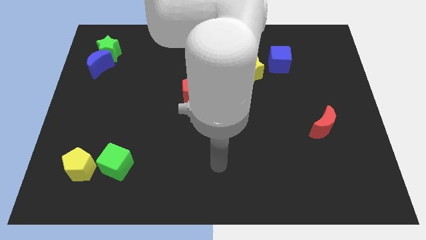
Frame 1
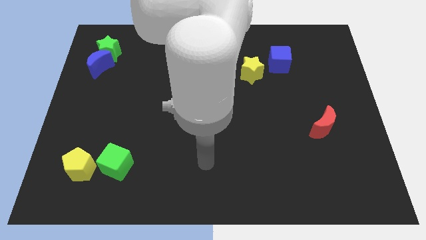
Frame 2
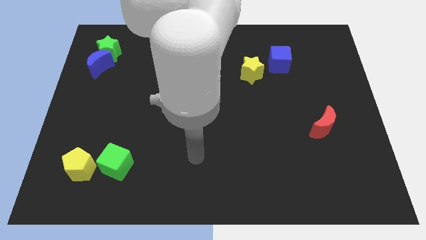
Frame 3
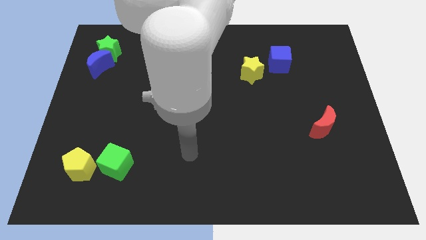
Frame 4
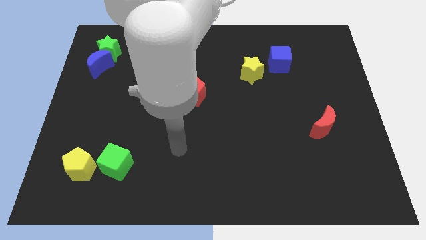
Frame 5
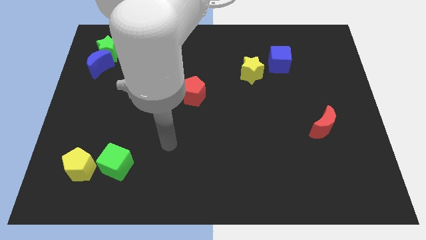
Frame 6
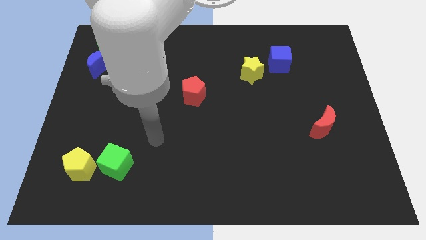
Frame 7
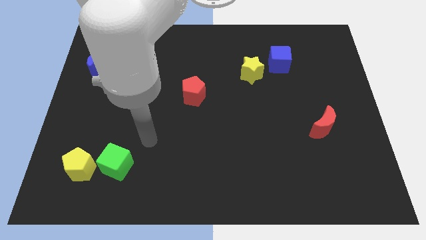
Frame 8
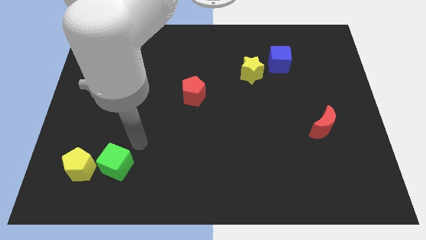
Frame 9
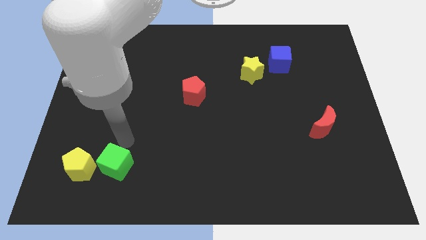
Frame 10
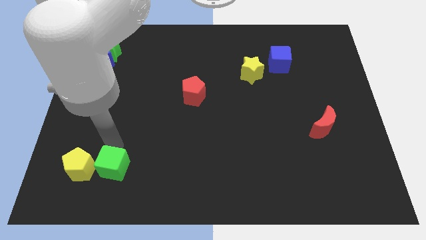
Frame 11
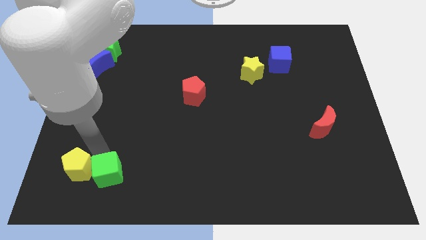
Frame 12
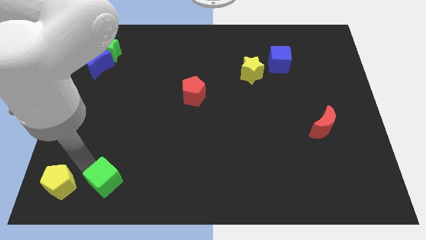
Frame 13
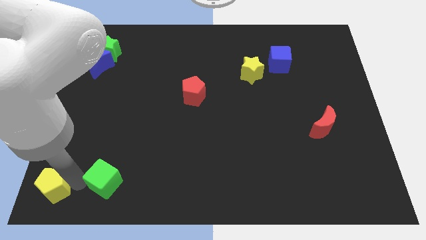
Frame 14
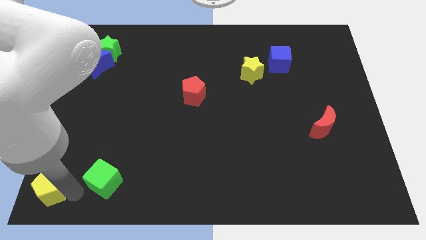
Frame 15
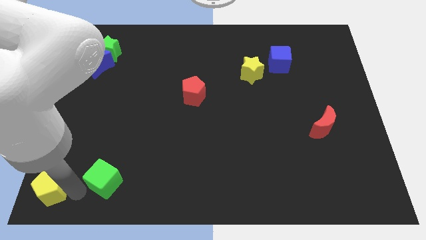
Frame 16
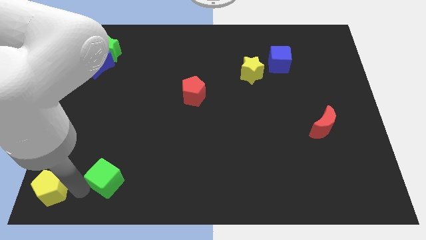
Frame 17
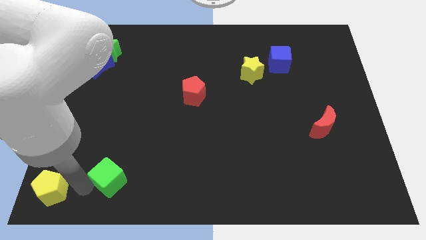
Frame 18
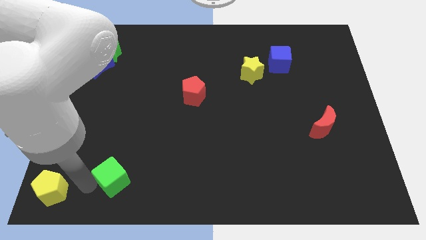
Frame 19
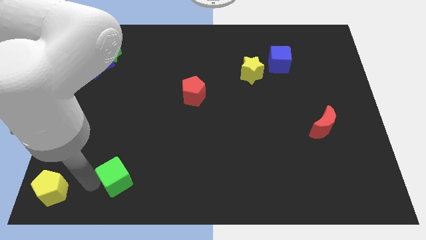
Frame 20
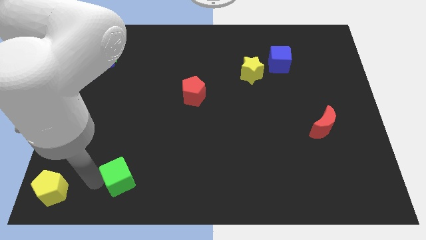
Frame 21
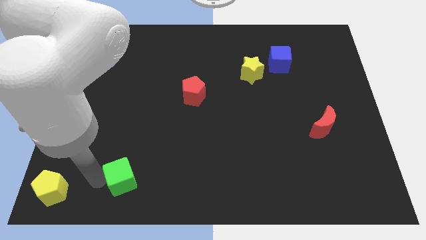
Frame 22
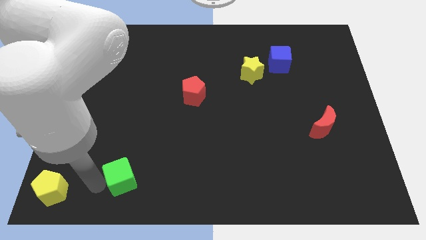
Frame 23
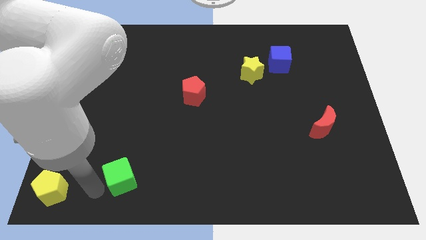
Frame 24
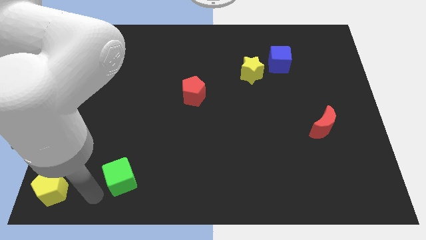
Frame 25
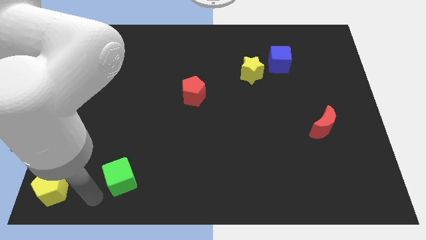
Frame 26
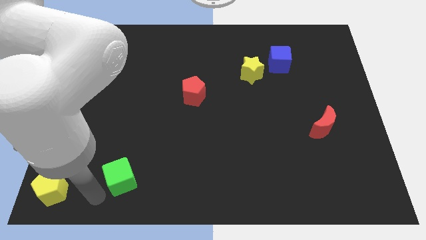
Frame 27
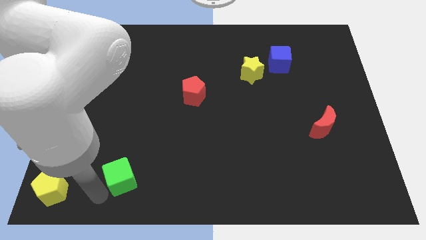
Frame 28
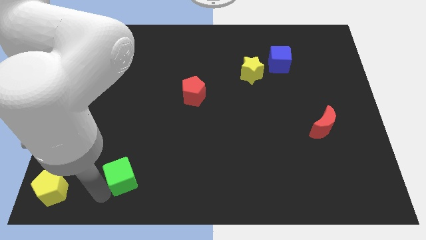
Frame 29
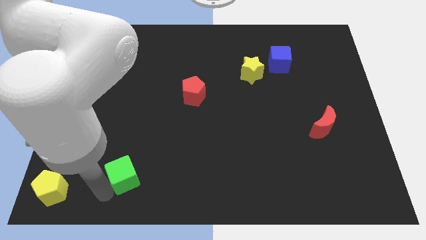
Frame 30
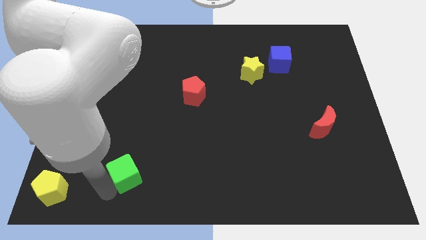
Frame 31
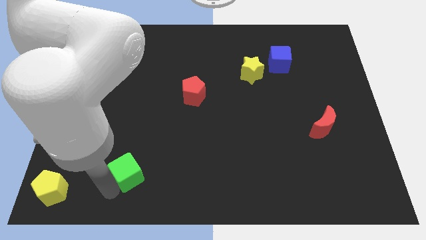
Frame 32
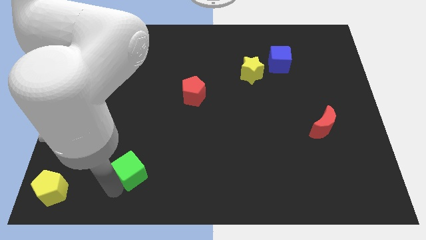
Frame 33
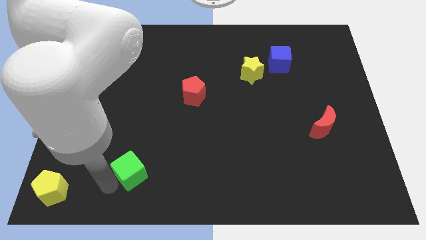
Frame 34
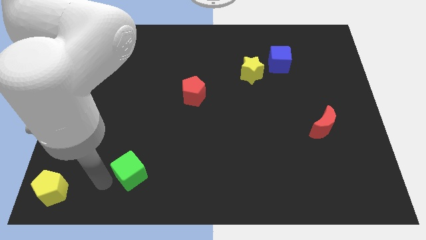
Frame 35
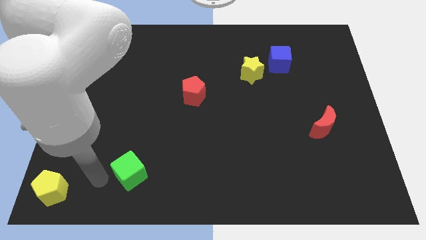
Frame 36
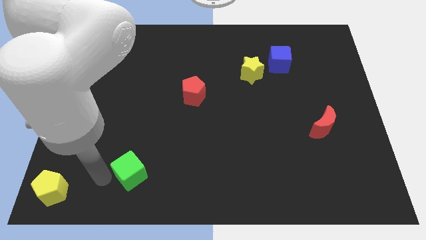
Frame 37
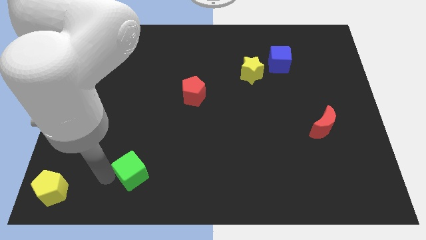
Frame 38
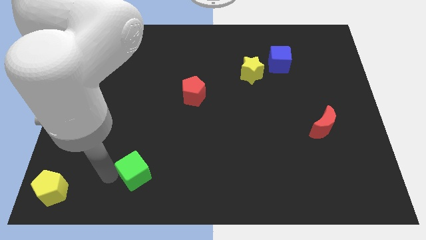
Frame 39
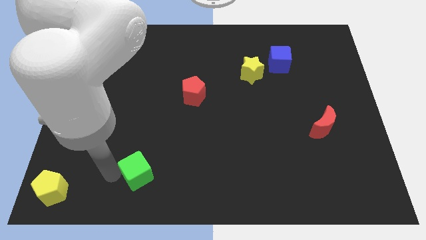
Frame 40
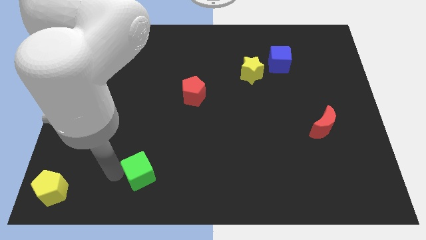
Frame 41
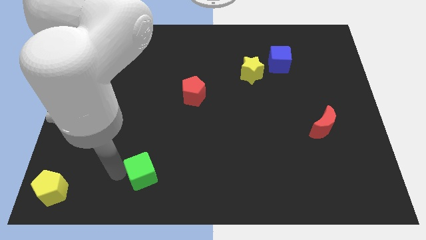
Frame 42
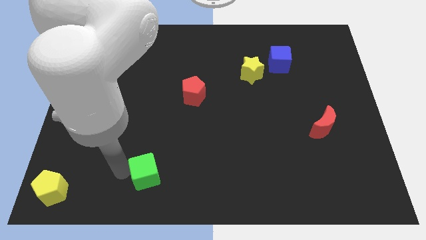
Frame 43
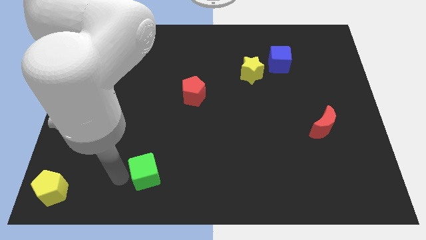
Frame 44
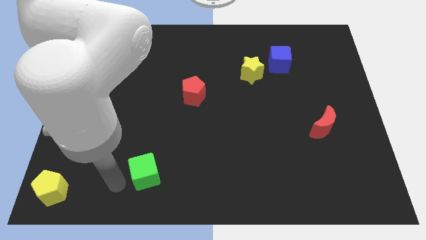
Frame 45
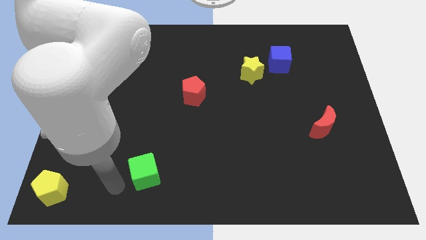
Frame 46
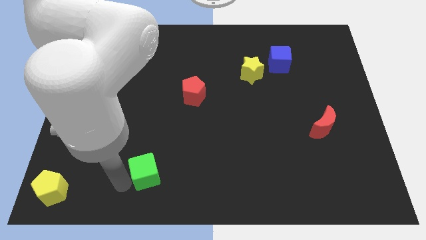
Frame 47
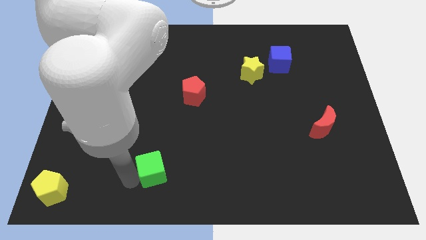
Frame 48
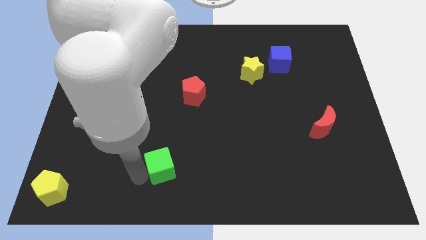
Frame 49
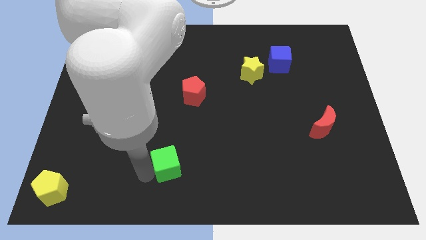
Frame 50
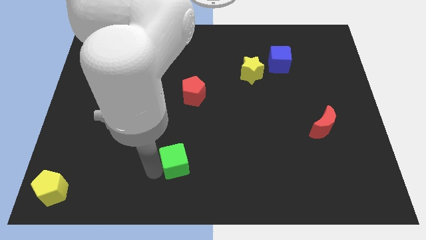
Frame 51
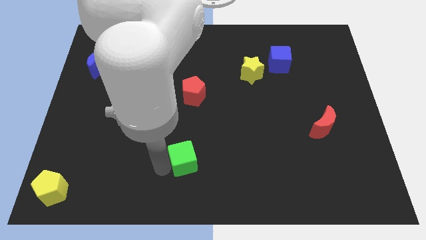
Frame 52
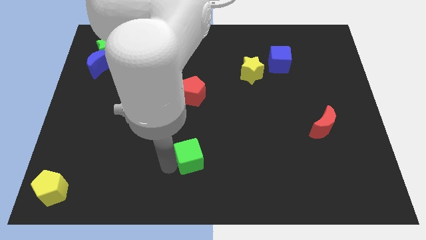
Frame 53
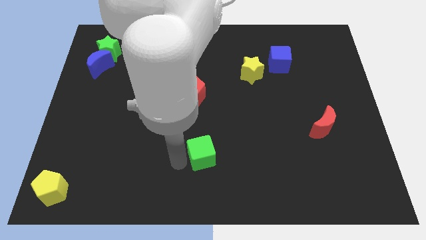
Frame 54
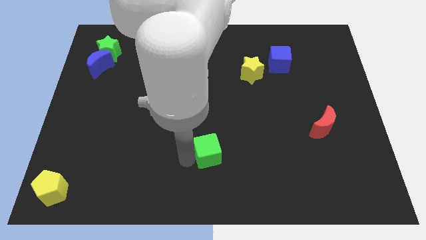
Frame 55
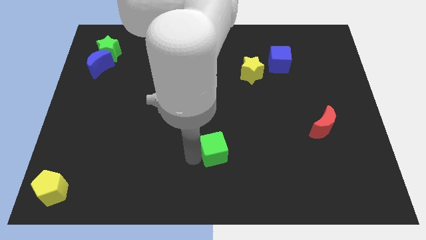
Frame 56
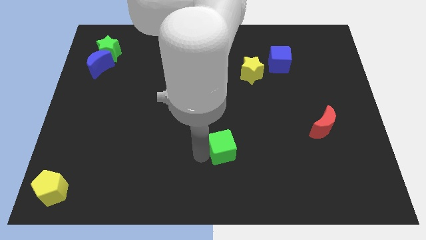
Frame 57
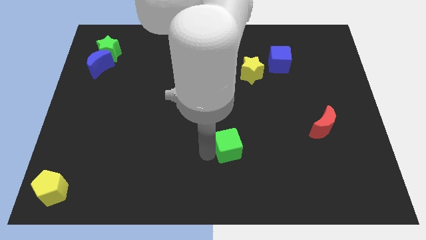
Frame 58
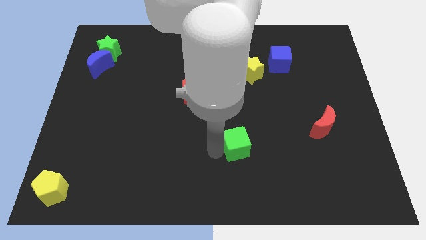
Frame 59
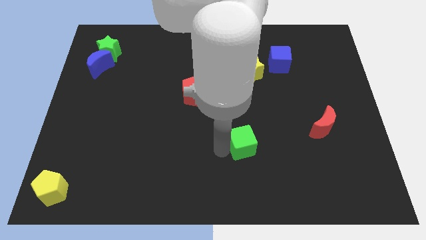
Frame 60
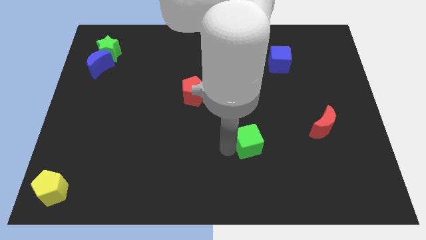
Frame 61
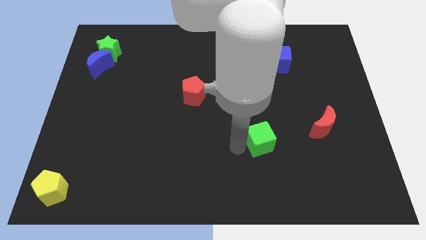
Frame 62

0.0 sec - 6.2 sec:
slide the green cube just left of the red moon

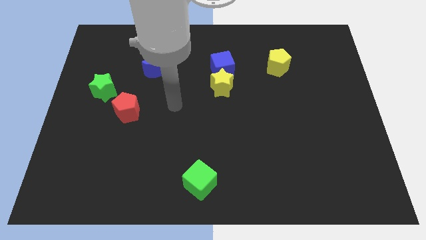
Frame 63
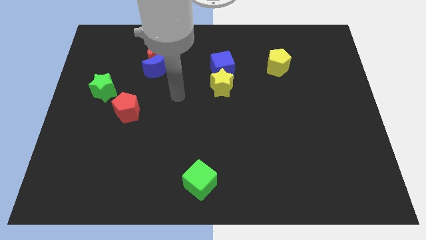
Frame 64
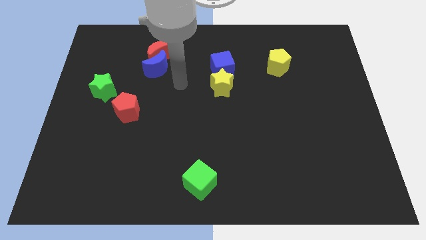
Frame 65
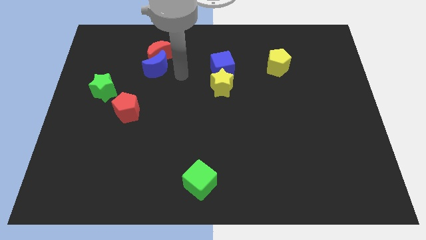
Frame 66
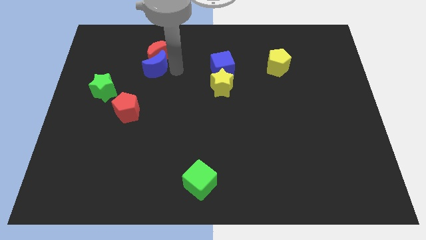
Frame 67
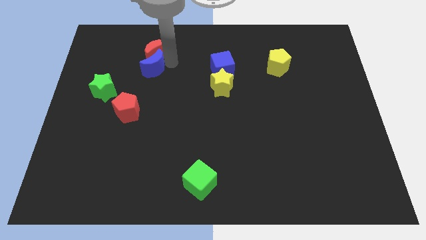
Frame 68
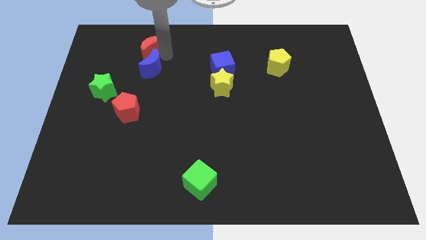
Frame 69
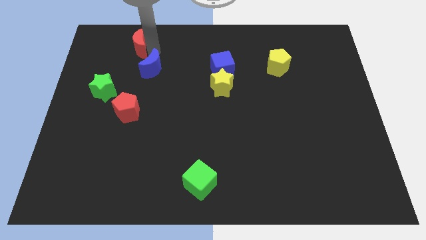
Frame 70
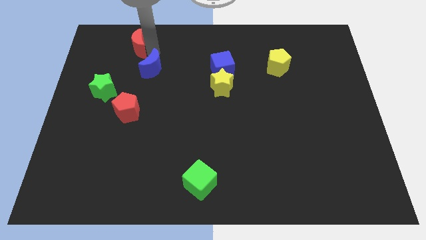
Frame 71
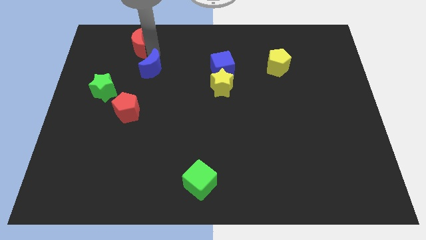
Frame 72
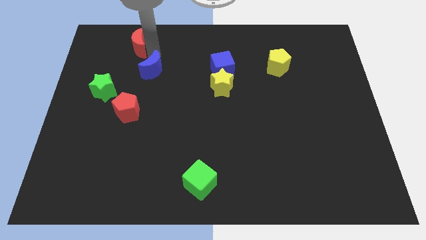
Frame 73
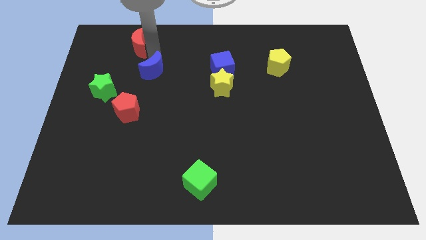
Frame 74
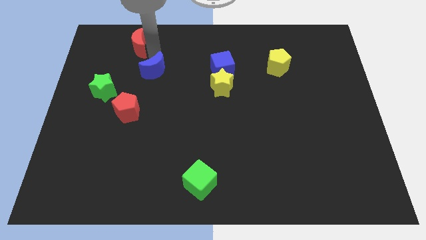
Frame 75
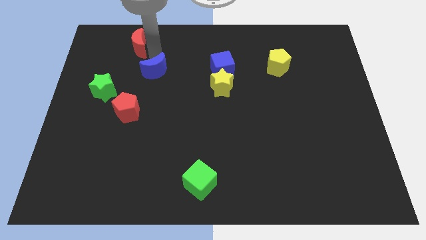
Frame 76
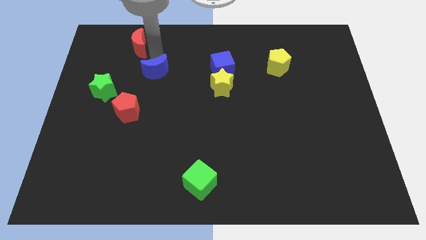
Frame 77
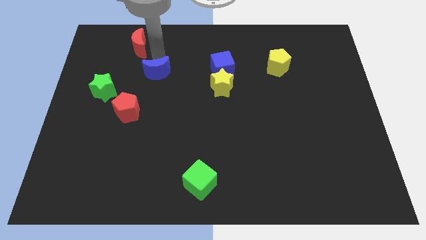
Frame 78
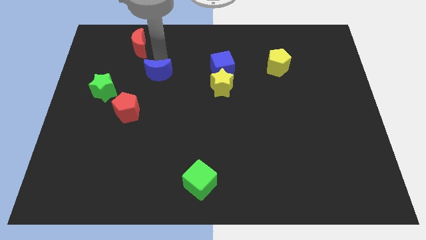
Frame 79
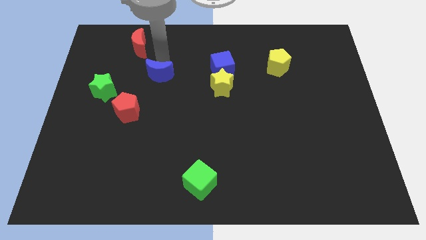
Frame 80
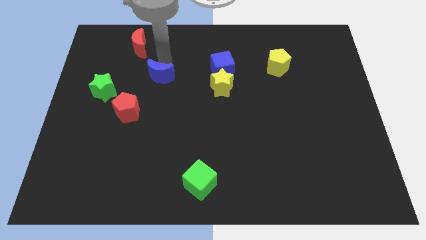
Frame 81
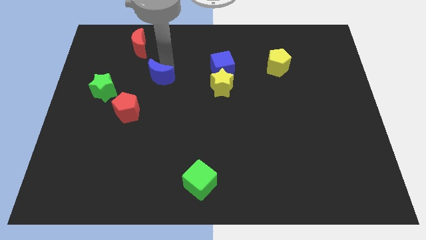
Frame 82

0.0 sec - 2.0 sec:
put the blue moon to the top right side of the red pentagon
